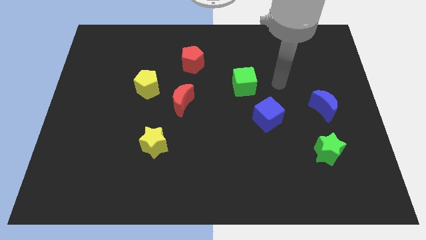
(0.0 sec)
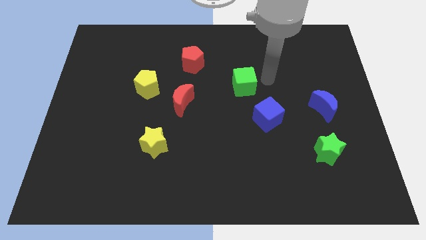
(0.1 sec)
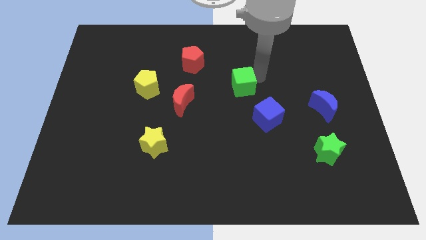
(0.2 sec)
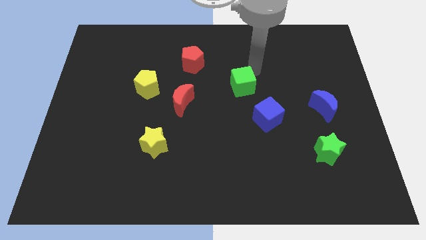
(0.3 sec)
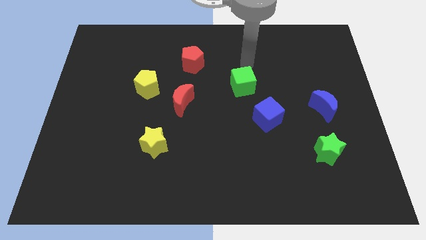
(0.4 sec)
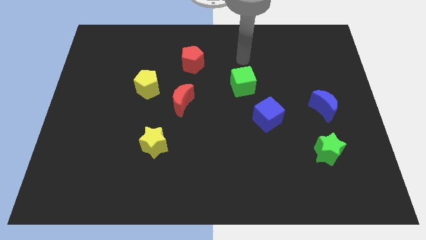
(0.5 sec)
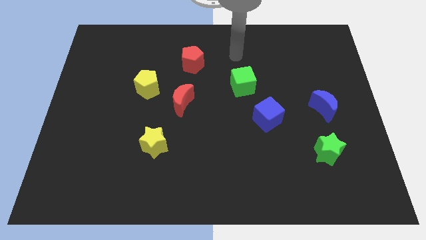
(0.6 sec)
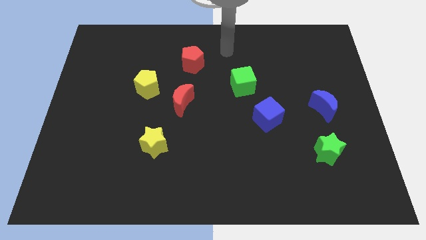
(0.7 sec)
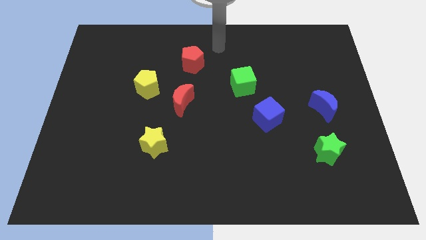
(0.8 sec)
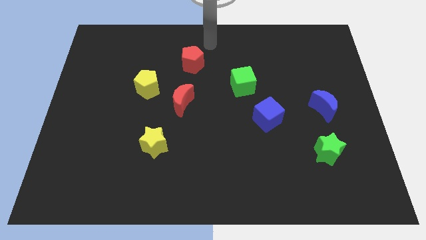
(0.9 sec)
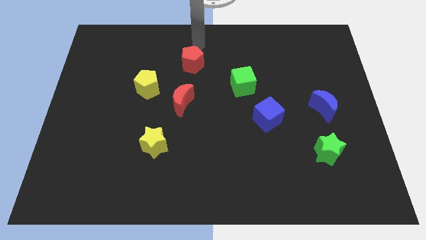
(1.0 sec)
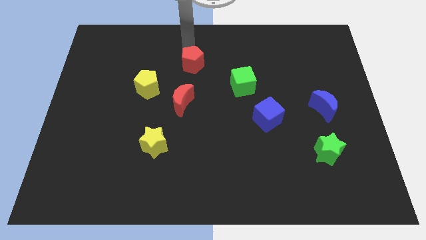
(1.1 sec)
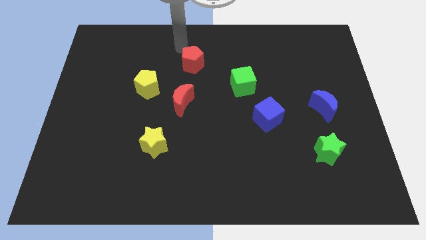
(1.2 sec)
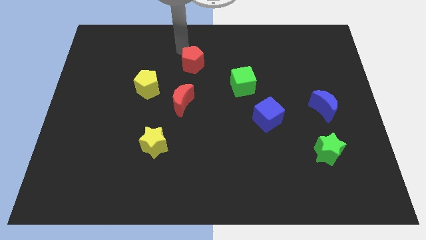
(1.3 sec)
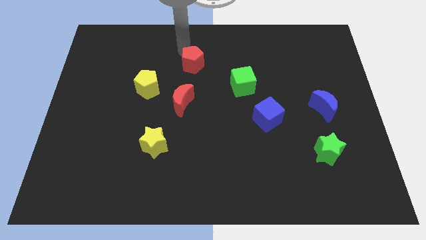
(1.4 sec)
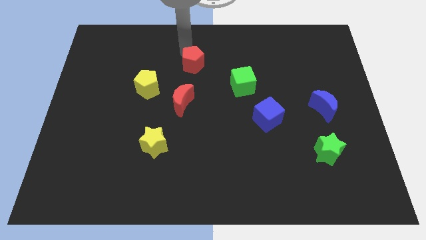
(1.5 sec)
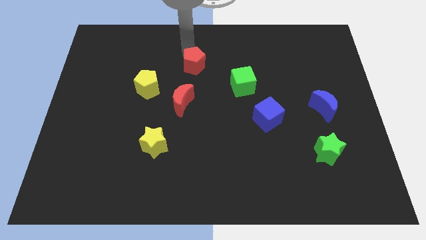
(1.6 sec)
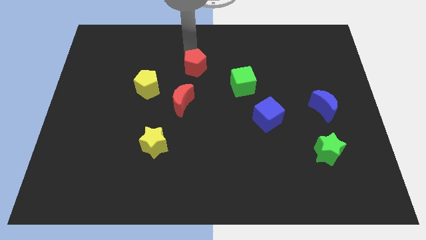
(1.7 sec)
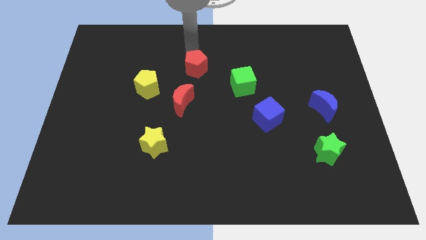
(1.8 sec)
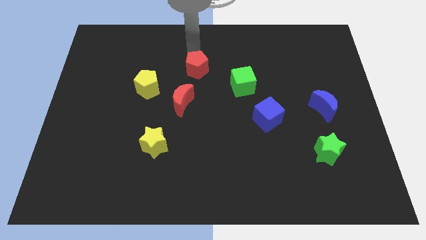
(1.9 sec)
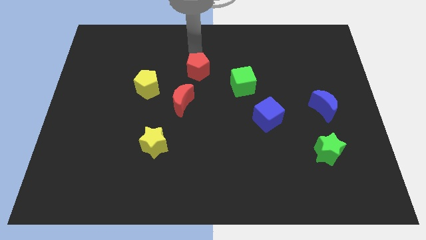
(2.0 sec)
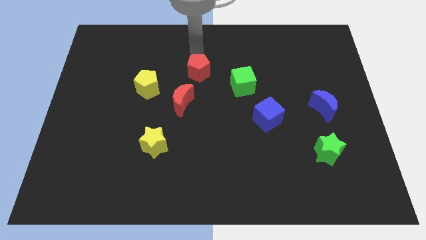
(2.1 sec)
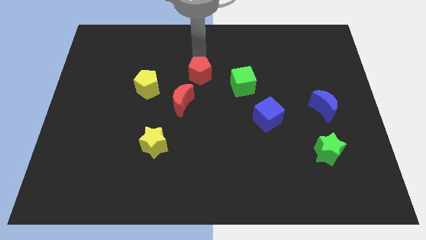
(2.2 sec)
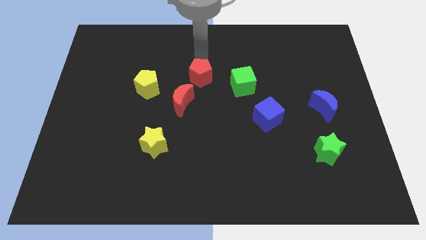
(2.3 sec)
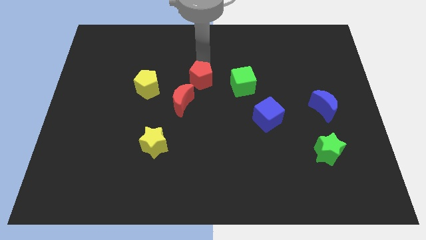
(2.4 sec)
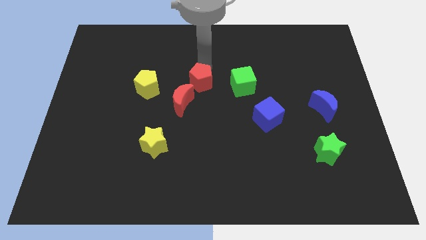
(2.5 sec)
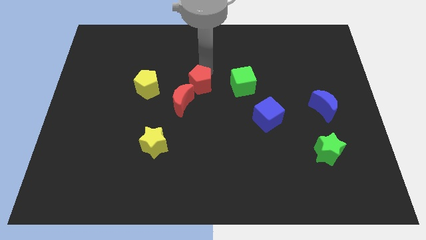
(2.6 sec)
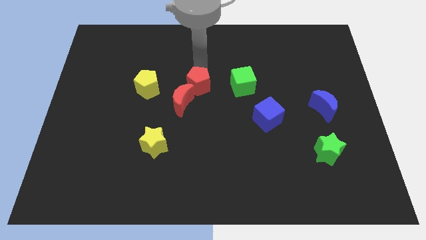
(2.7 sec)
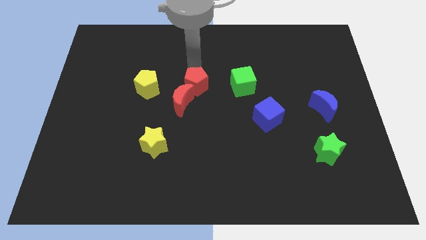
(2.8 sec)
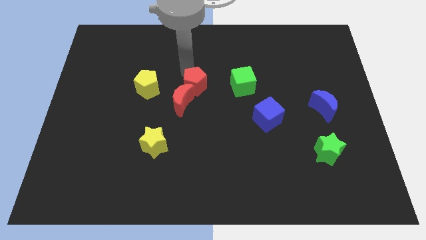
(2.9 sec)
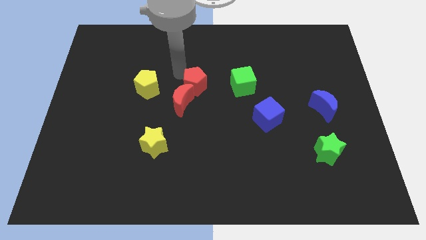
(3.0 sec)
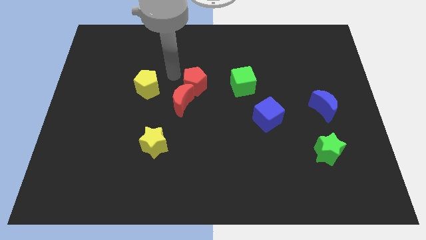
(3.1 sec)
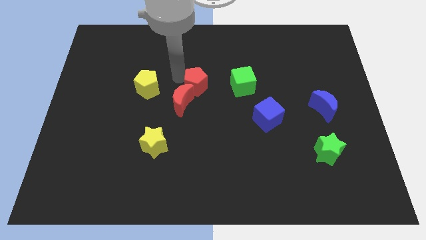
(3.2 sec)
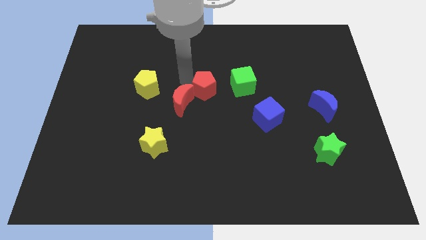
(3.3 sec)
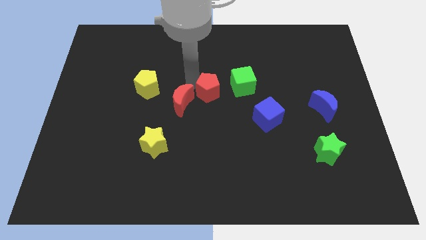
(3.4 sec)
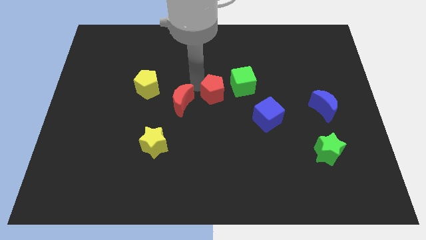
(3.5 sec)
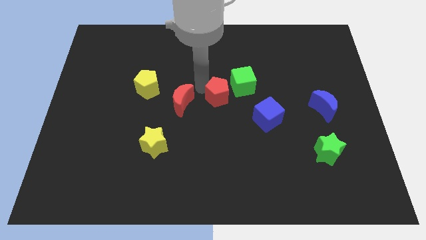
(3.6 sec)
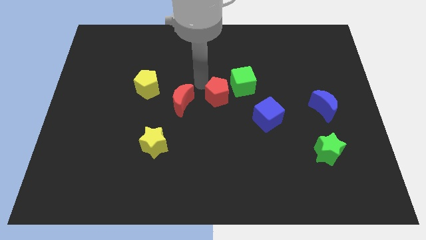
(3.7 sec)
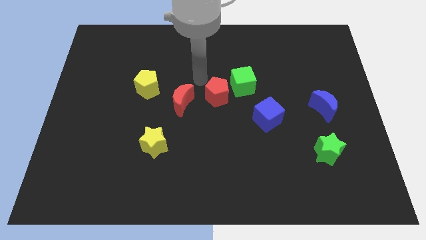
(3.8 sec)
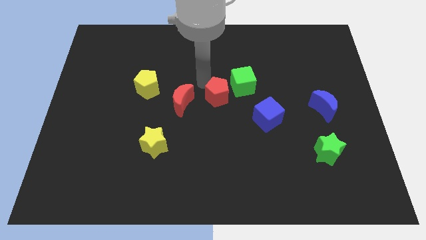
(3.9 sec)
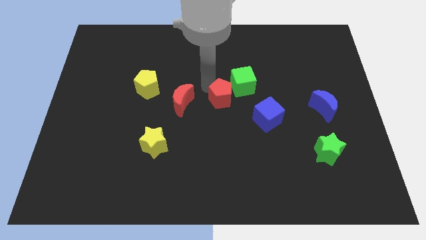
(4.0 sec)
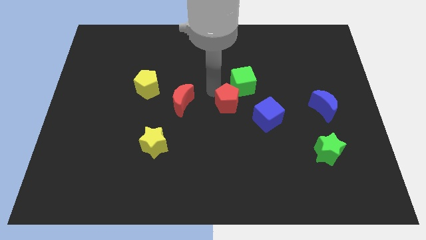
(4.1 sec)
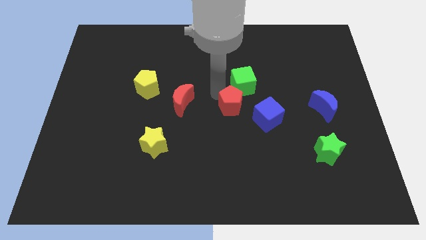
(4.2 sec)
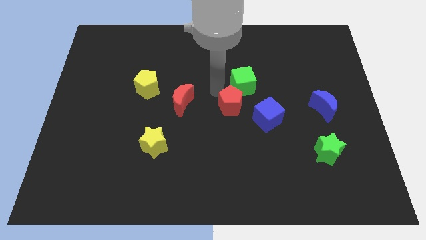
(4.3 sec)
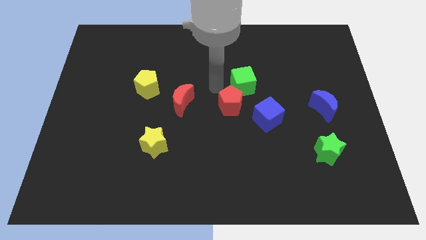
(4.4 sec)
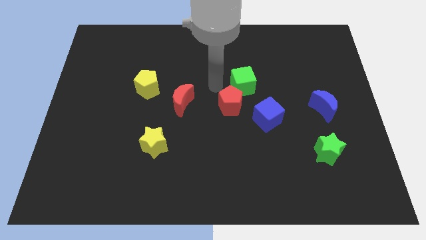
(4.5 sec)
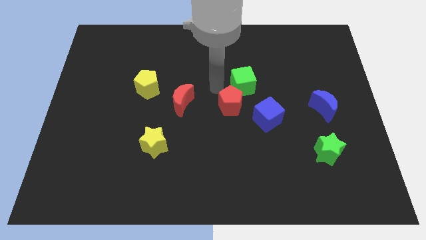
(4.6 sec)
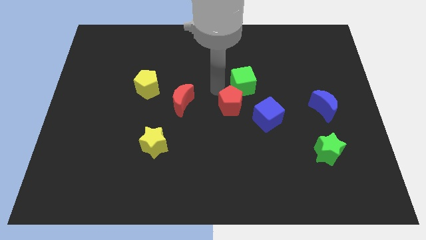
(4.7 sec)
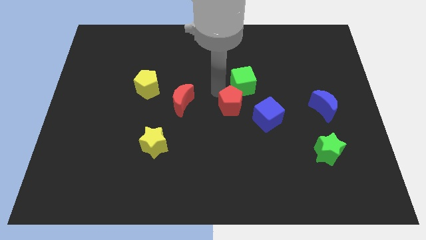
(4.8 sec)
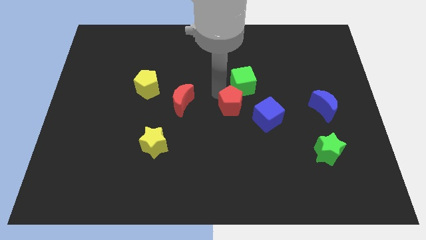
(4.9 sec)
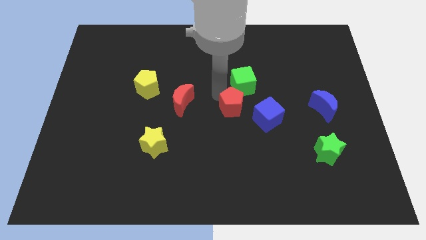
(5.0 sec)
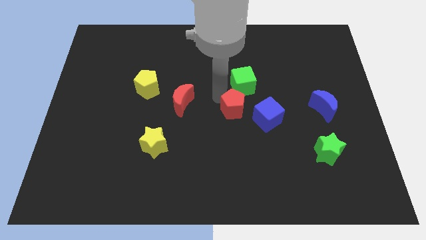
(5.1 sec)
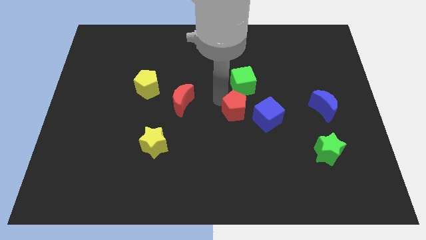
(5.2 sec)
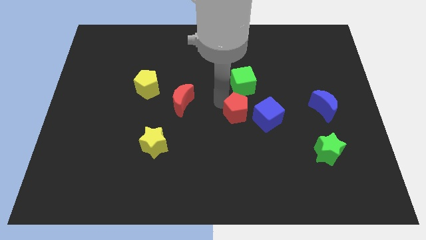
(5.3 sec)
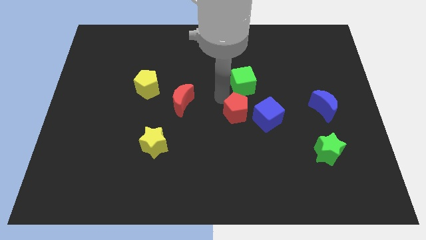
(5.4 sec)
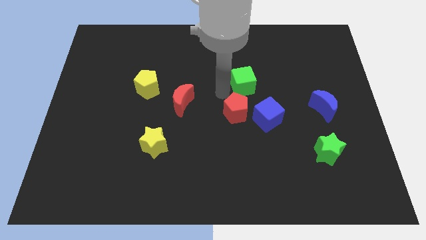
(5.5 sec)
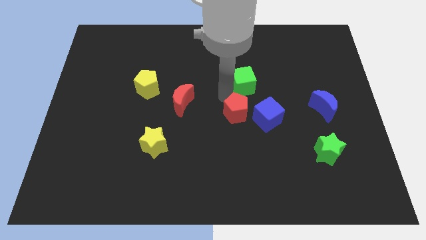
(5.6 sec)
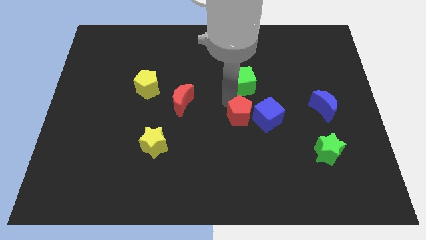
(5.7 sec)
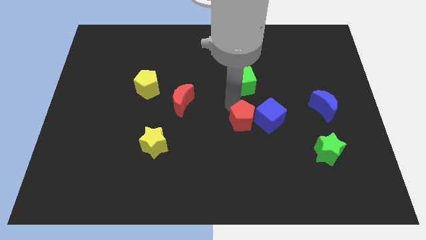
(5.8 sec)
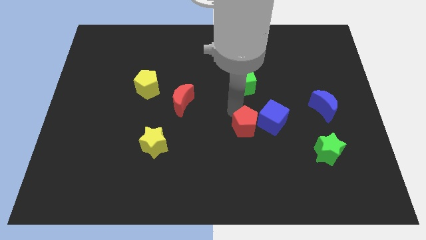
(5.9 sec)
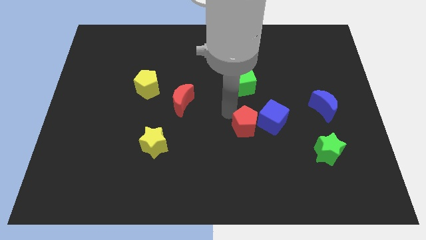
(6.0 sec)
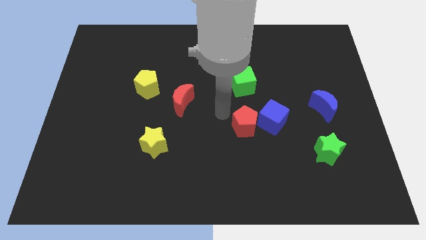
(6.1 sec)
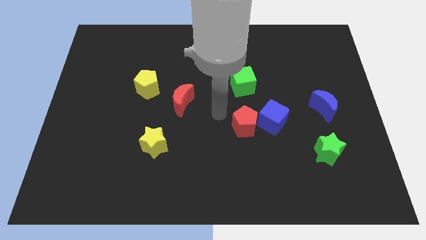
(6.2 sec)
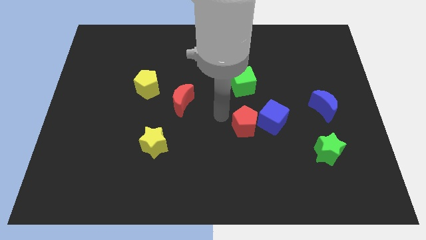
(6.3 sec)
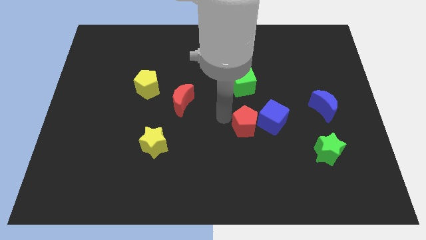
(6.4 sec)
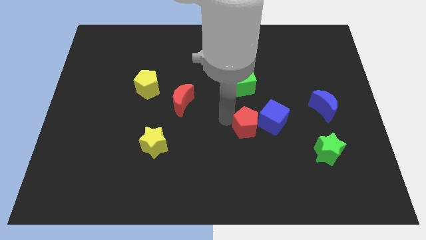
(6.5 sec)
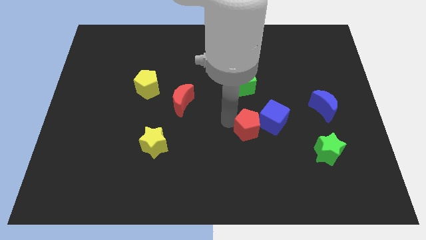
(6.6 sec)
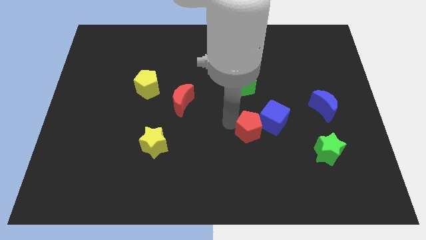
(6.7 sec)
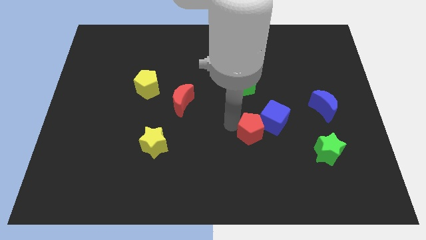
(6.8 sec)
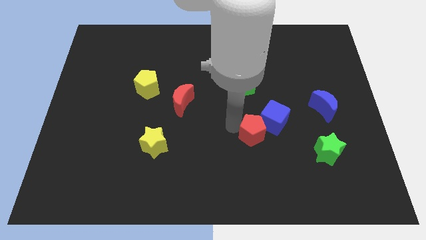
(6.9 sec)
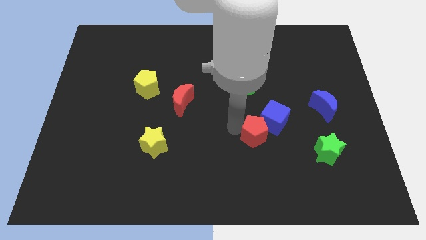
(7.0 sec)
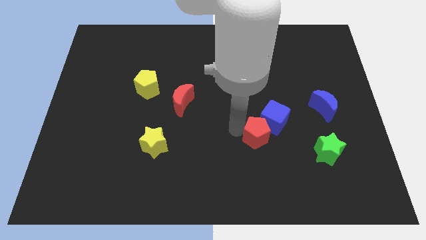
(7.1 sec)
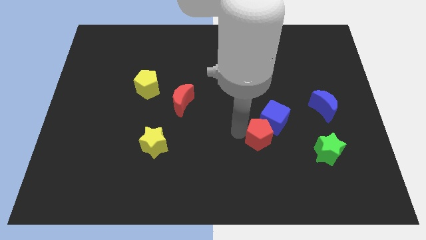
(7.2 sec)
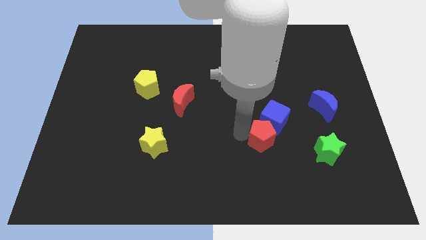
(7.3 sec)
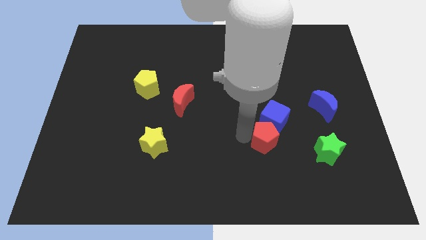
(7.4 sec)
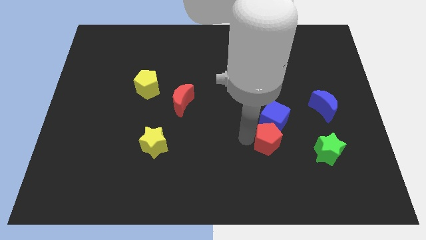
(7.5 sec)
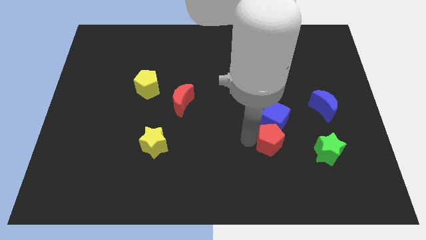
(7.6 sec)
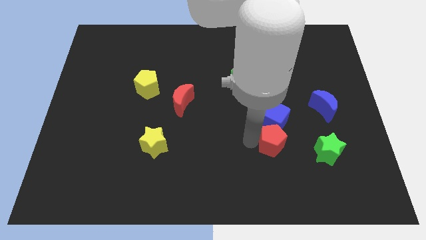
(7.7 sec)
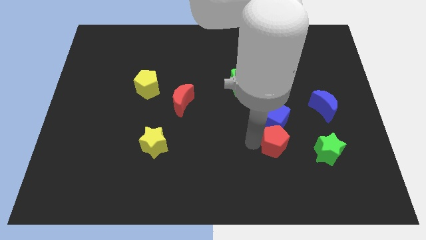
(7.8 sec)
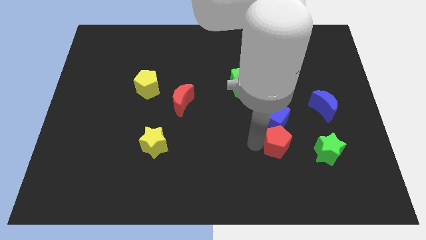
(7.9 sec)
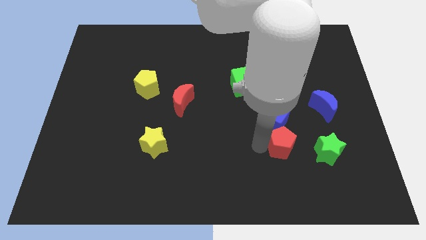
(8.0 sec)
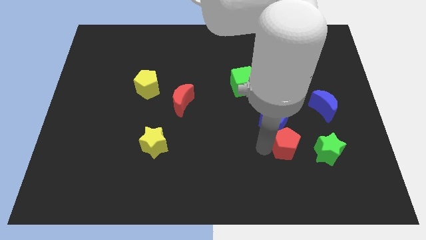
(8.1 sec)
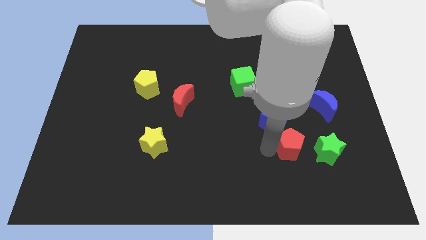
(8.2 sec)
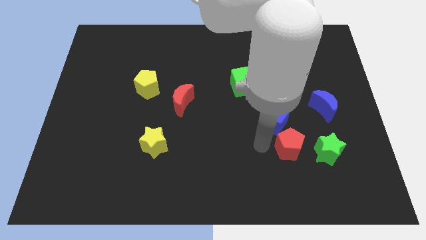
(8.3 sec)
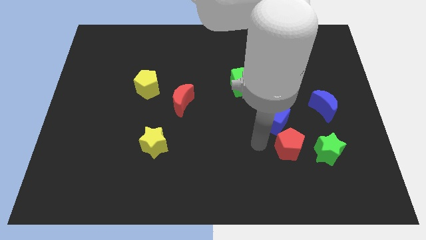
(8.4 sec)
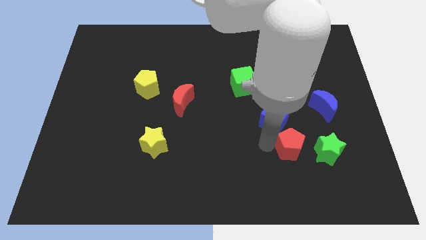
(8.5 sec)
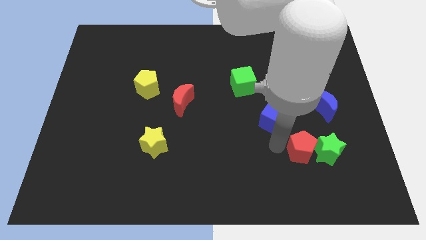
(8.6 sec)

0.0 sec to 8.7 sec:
push the red pentagon next to the green star
